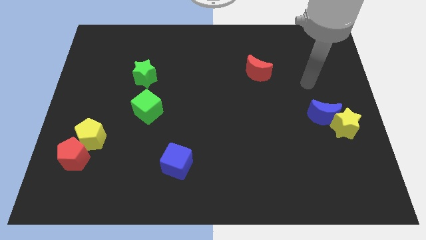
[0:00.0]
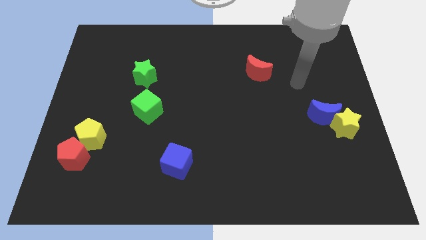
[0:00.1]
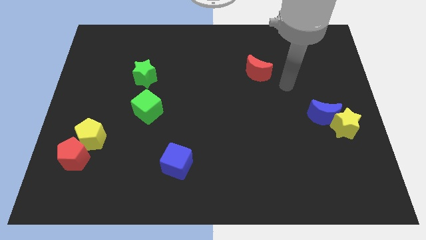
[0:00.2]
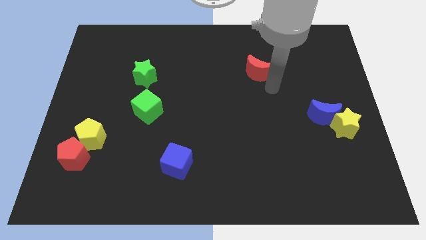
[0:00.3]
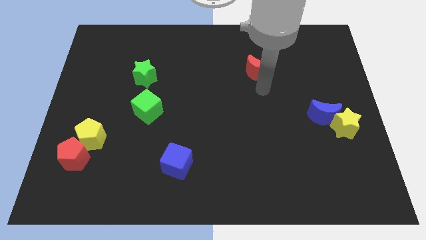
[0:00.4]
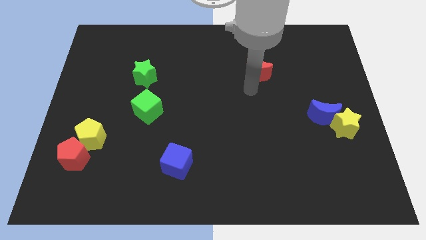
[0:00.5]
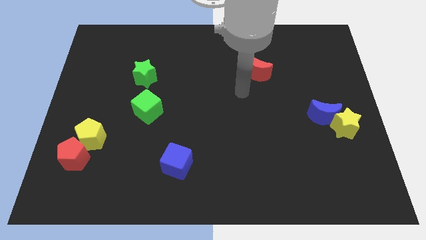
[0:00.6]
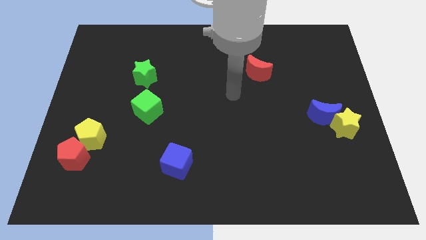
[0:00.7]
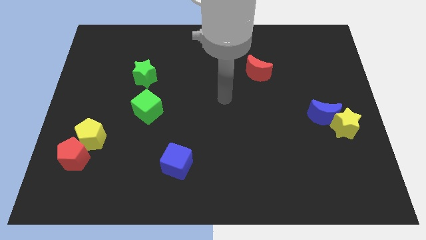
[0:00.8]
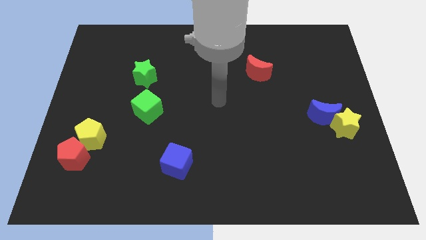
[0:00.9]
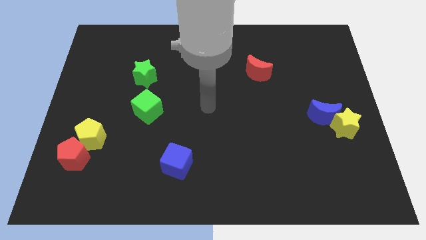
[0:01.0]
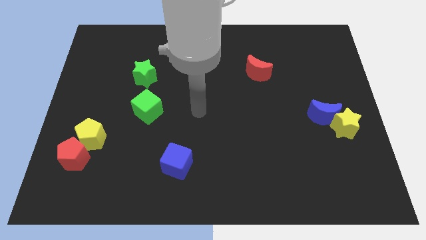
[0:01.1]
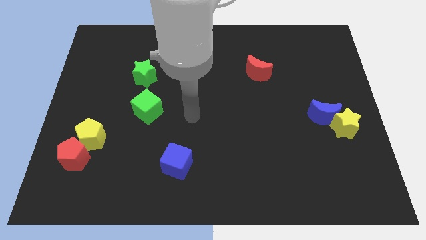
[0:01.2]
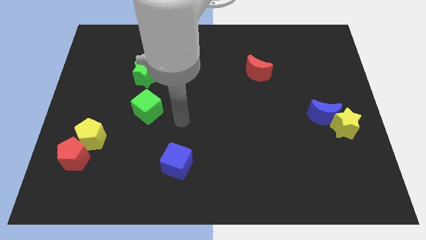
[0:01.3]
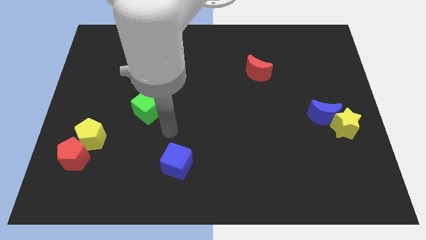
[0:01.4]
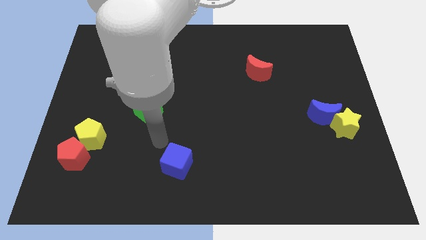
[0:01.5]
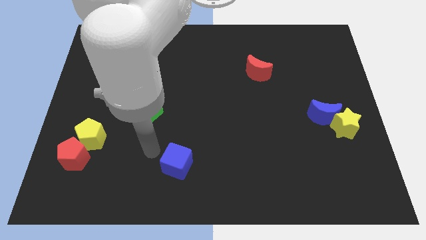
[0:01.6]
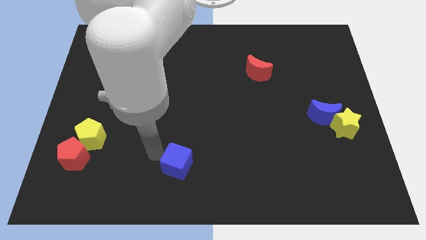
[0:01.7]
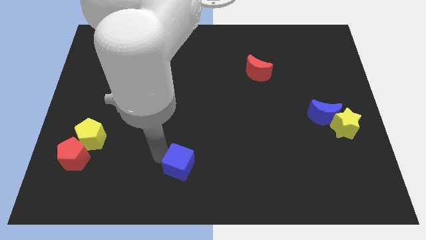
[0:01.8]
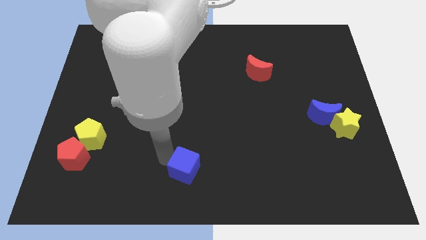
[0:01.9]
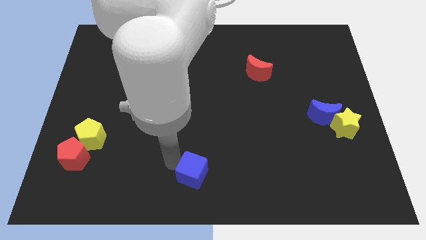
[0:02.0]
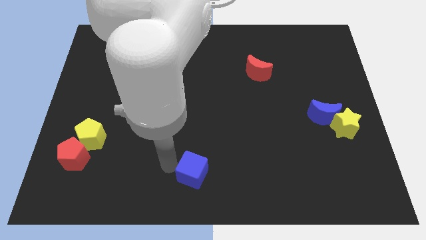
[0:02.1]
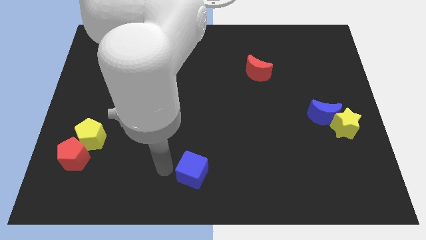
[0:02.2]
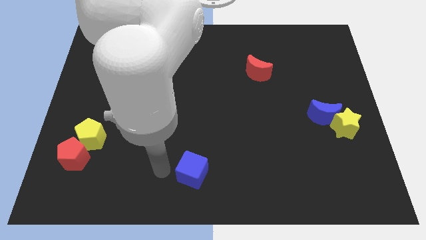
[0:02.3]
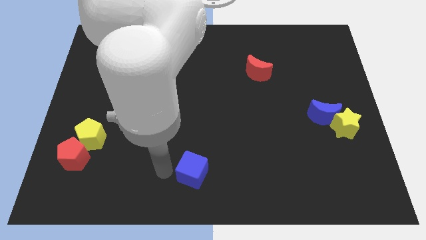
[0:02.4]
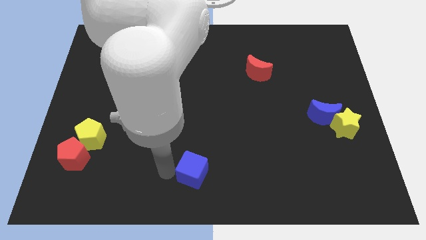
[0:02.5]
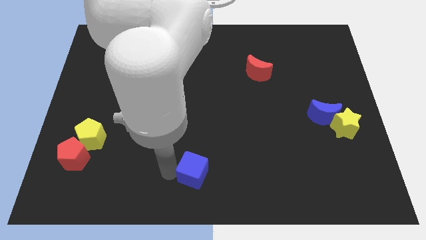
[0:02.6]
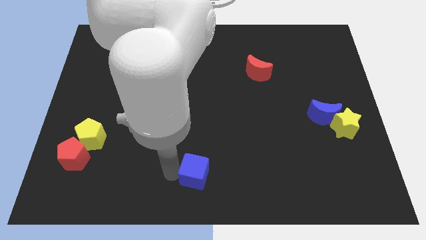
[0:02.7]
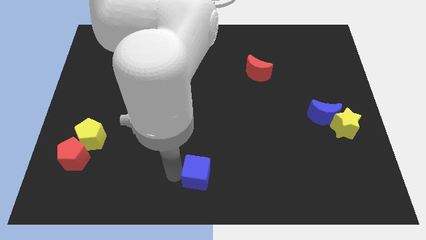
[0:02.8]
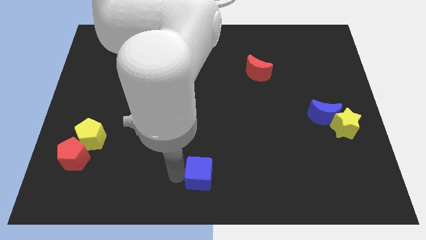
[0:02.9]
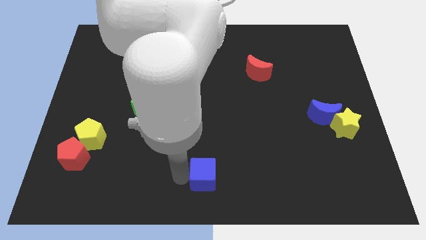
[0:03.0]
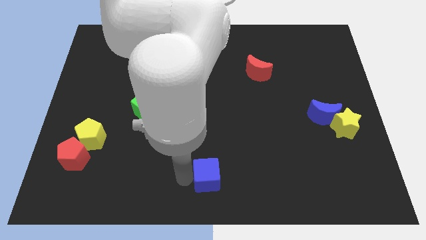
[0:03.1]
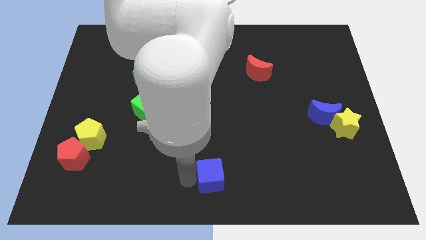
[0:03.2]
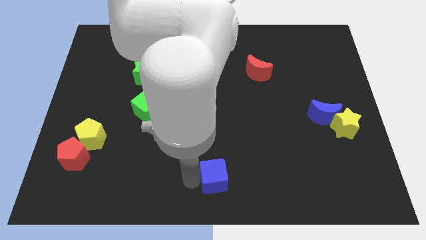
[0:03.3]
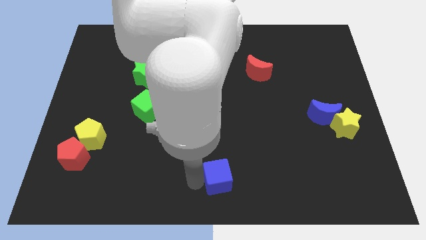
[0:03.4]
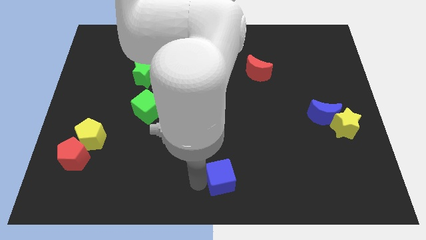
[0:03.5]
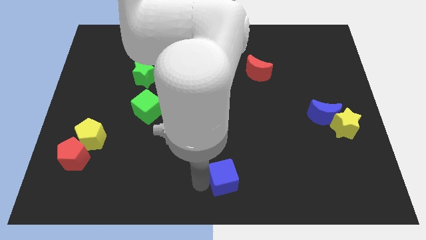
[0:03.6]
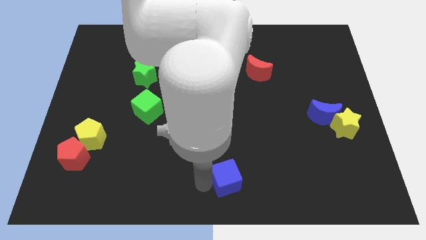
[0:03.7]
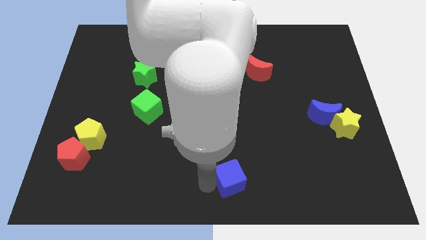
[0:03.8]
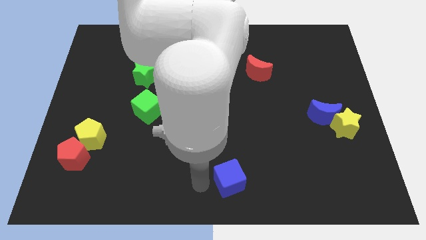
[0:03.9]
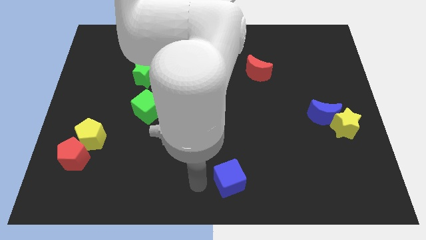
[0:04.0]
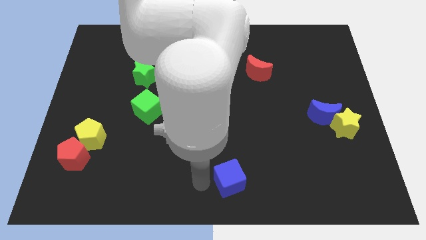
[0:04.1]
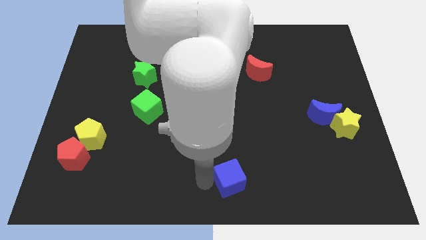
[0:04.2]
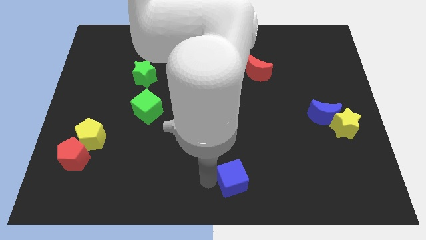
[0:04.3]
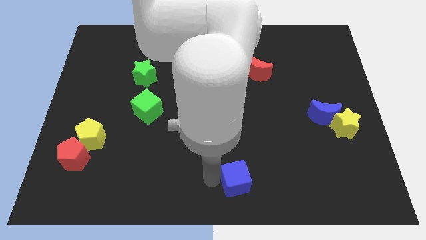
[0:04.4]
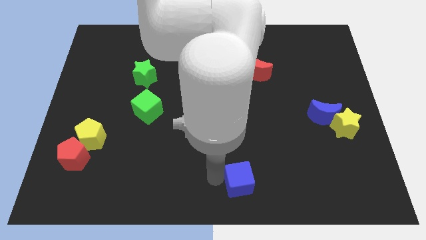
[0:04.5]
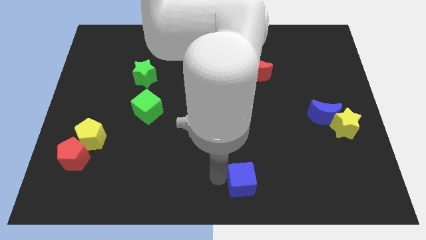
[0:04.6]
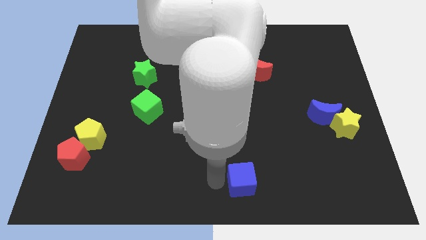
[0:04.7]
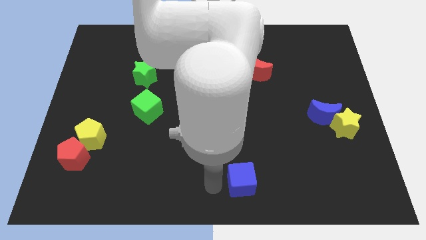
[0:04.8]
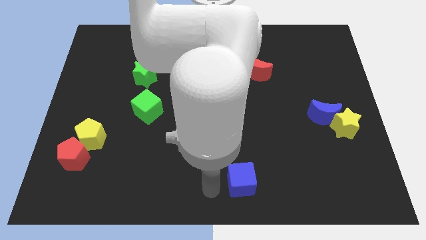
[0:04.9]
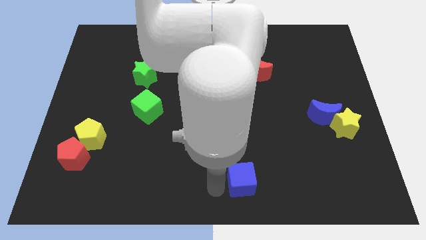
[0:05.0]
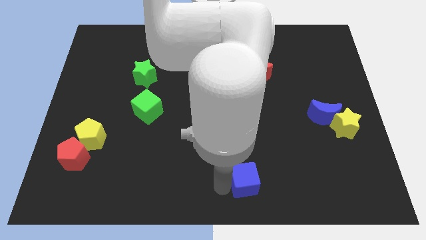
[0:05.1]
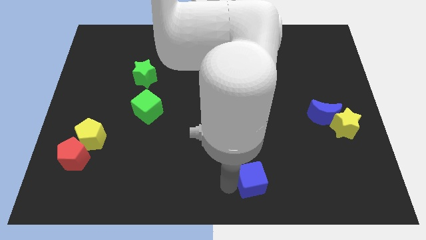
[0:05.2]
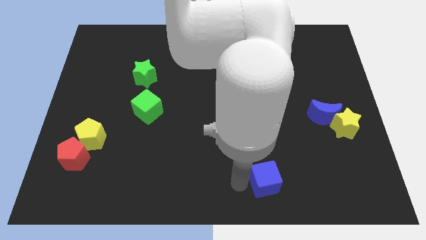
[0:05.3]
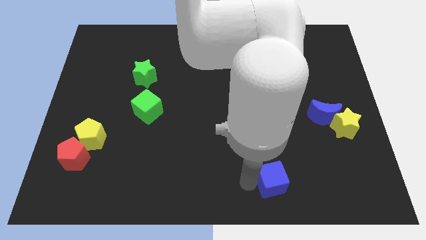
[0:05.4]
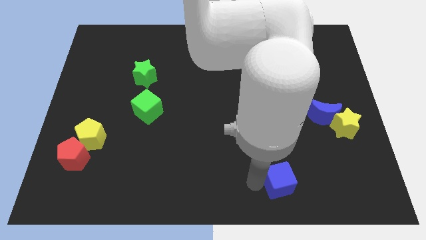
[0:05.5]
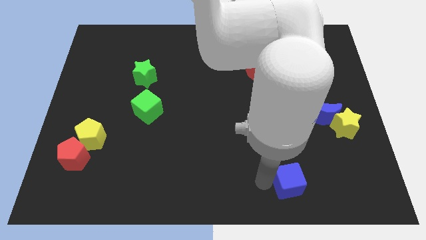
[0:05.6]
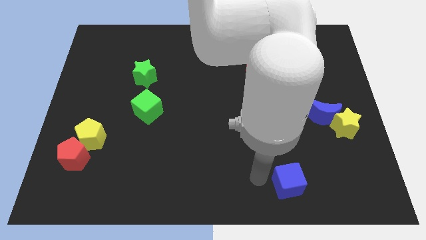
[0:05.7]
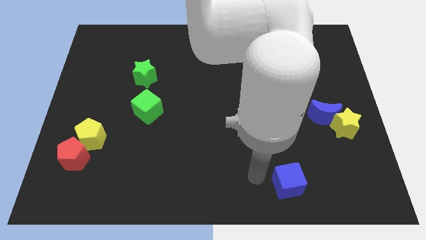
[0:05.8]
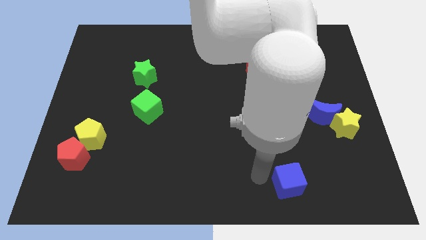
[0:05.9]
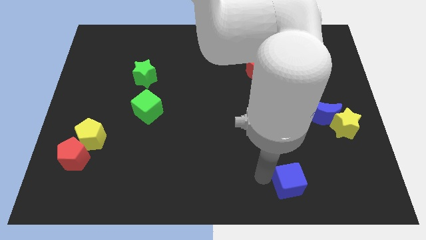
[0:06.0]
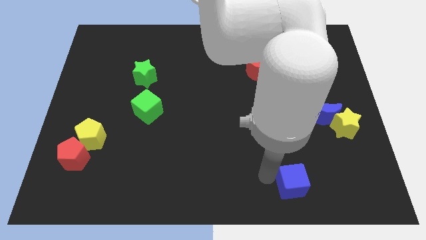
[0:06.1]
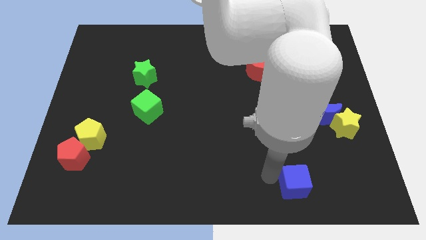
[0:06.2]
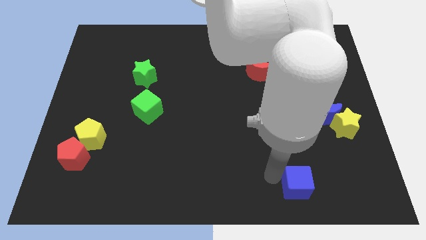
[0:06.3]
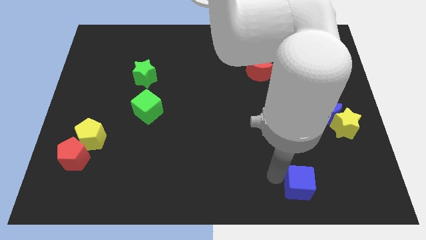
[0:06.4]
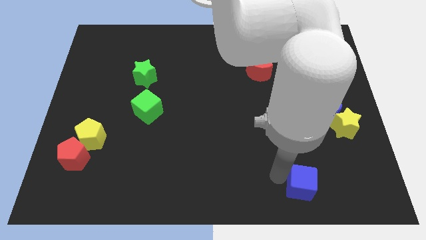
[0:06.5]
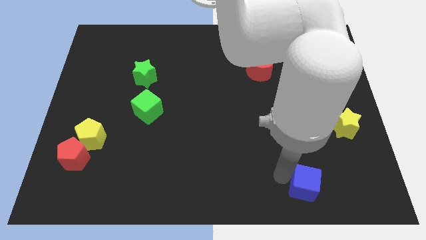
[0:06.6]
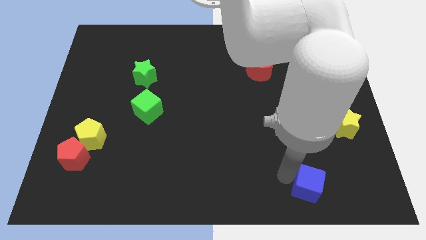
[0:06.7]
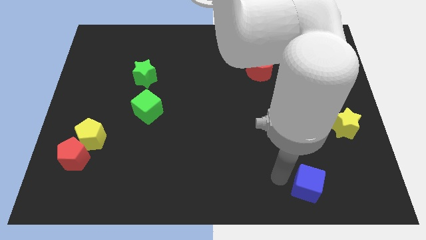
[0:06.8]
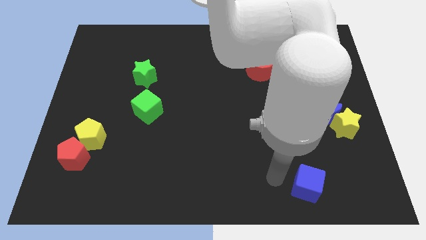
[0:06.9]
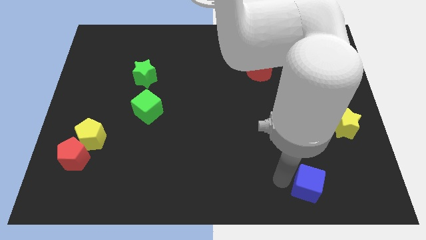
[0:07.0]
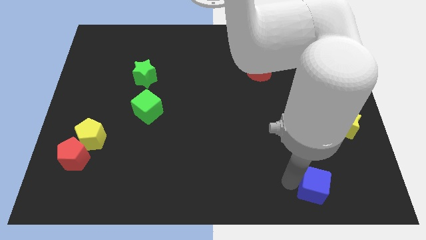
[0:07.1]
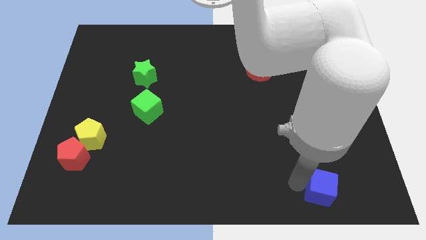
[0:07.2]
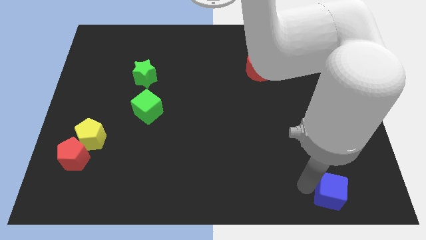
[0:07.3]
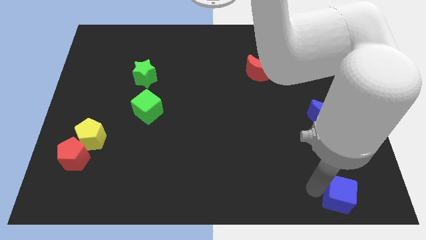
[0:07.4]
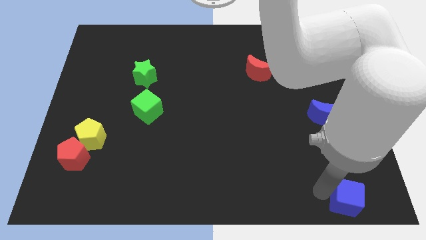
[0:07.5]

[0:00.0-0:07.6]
slide the blue cube to the bottom right
